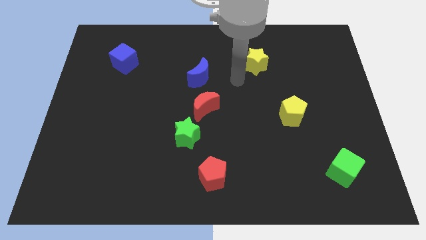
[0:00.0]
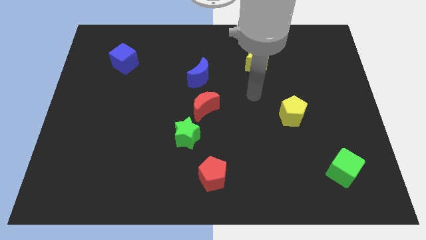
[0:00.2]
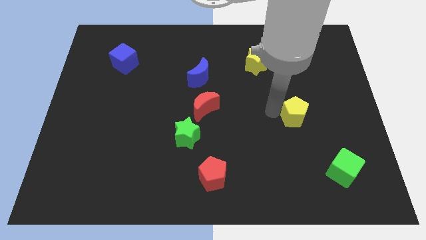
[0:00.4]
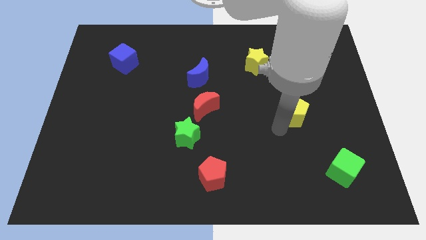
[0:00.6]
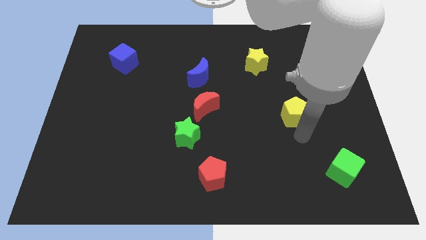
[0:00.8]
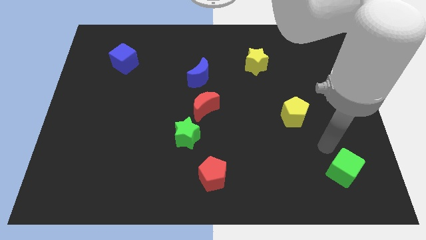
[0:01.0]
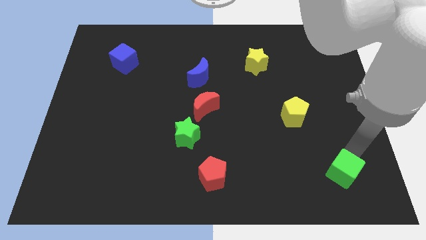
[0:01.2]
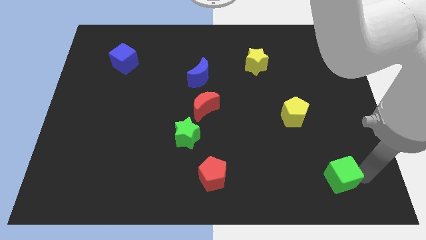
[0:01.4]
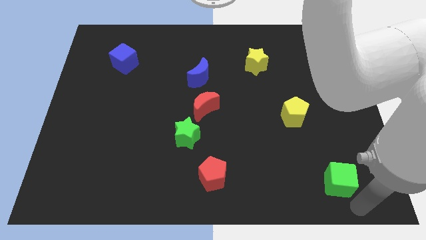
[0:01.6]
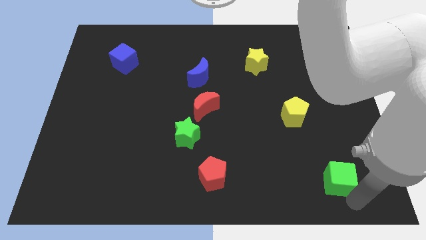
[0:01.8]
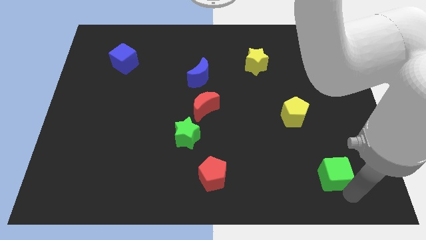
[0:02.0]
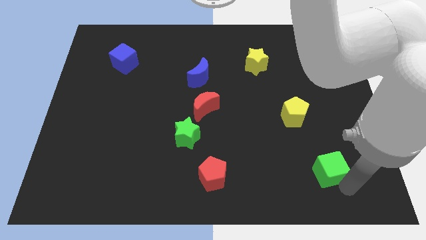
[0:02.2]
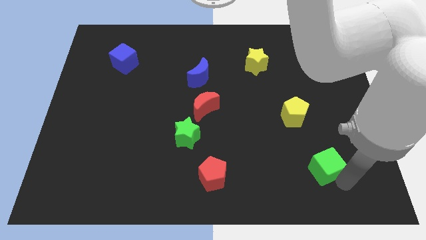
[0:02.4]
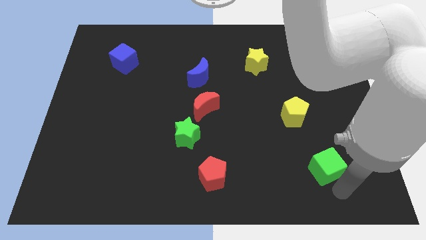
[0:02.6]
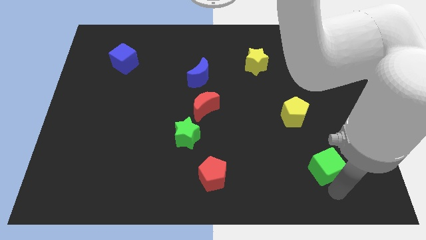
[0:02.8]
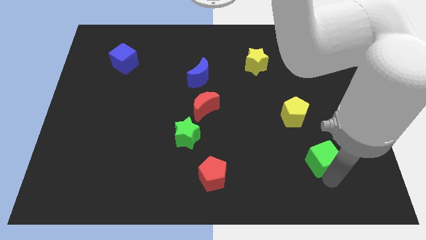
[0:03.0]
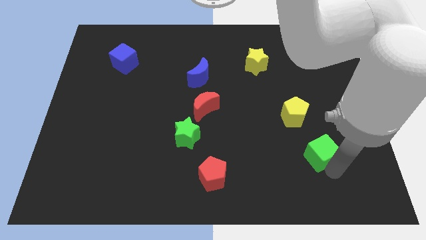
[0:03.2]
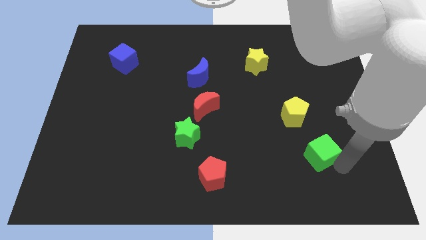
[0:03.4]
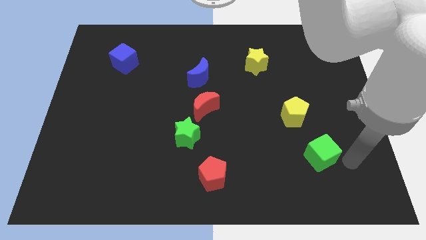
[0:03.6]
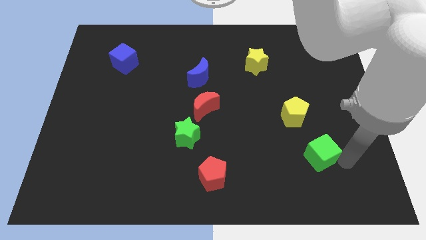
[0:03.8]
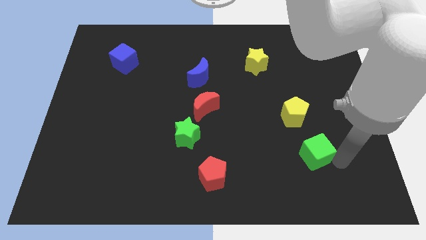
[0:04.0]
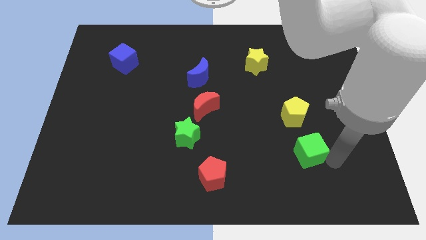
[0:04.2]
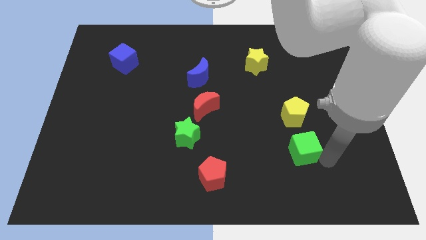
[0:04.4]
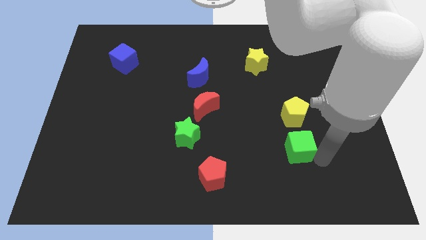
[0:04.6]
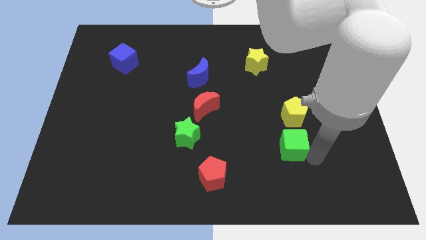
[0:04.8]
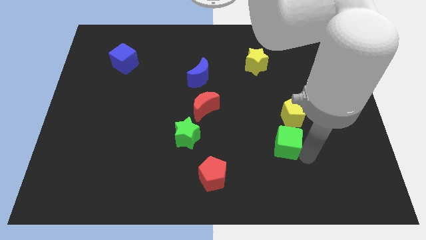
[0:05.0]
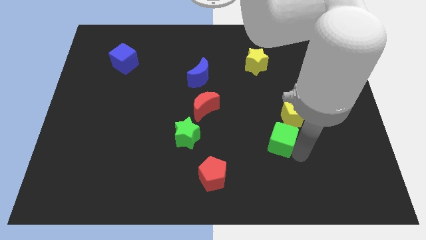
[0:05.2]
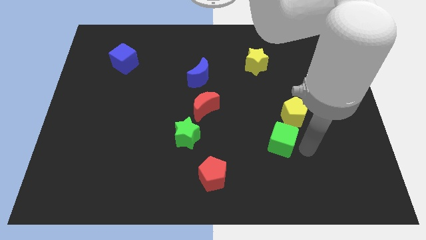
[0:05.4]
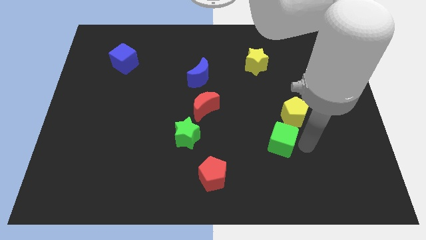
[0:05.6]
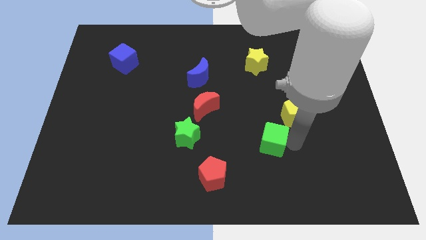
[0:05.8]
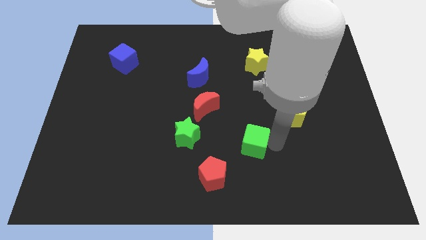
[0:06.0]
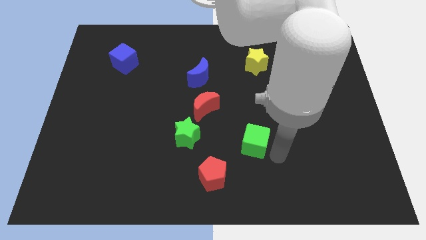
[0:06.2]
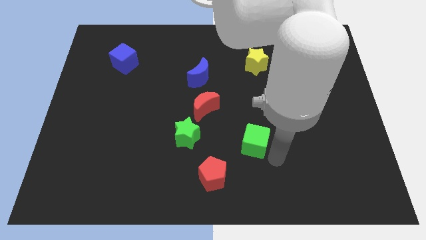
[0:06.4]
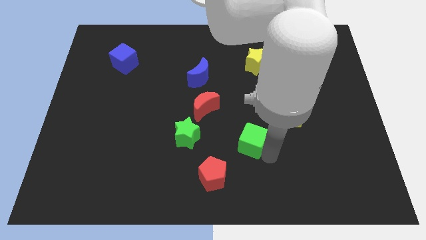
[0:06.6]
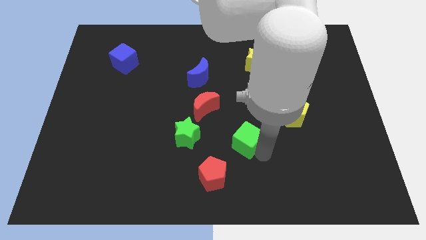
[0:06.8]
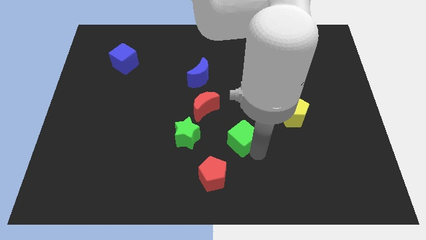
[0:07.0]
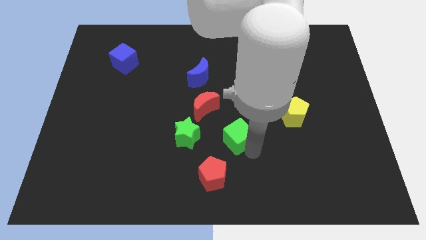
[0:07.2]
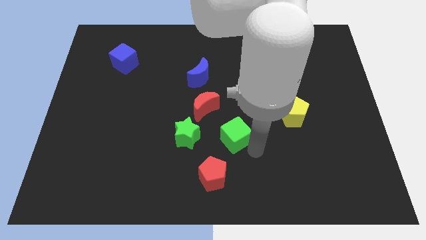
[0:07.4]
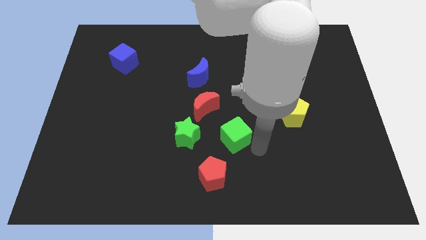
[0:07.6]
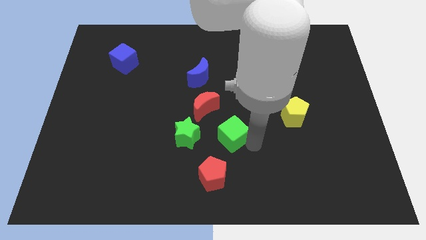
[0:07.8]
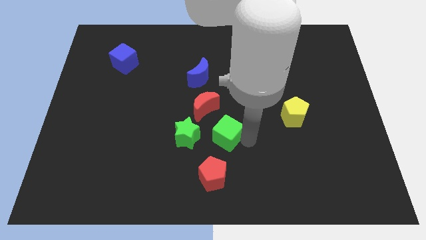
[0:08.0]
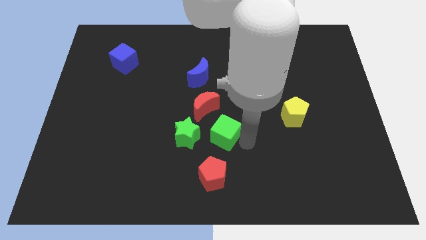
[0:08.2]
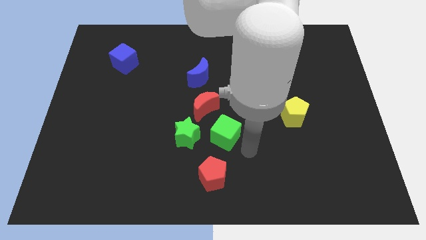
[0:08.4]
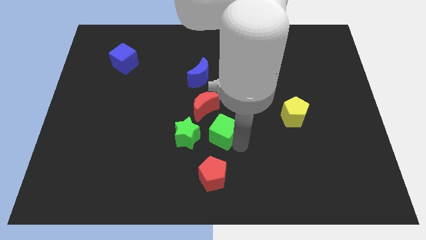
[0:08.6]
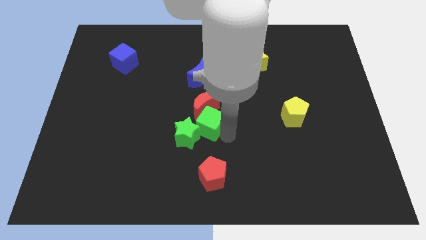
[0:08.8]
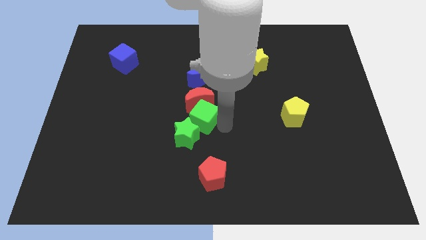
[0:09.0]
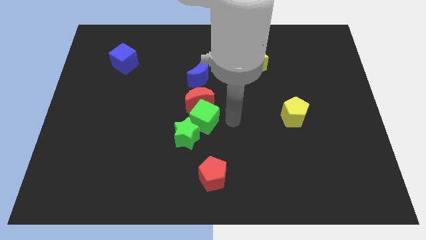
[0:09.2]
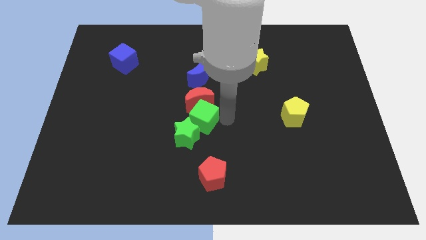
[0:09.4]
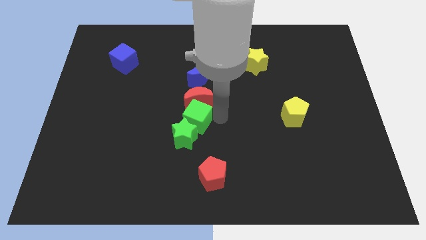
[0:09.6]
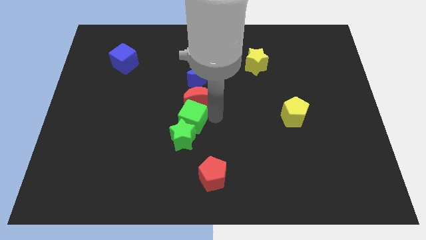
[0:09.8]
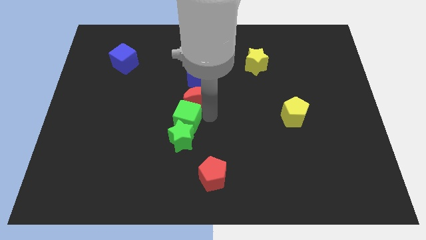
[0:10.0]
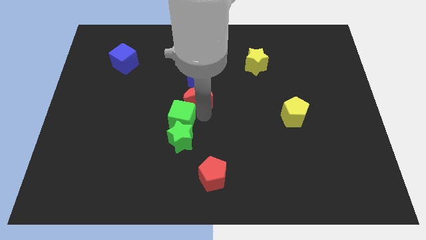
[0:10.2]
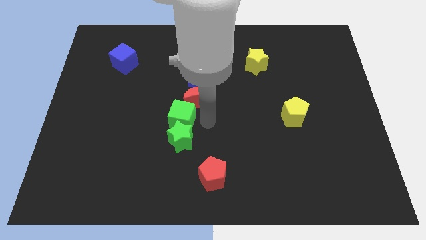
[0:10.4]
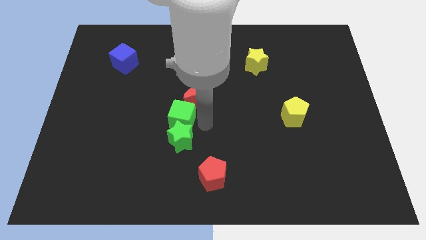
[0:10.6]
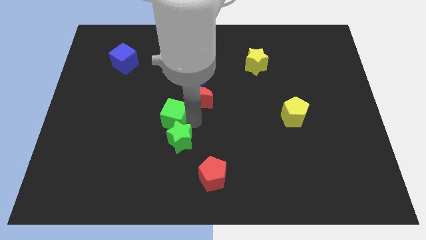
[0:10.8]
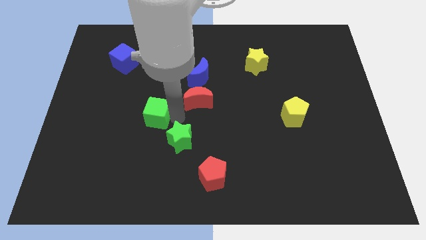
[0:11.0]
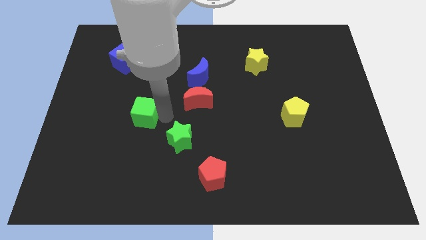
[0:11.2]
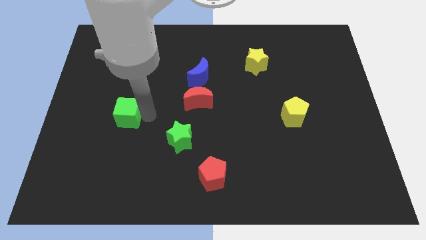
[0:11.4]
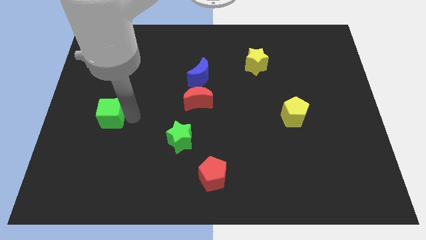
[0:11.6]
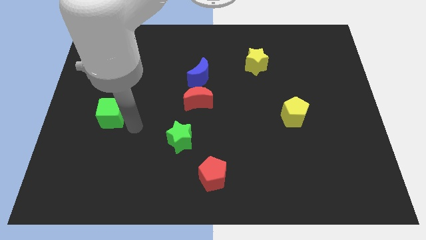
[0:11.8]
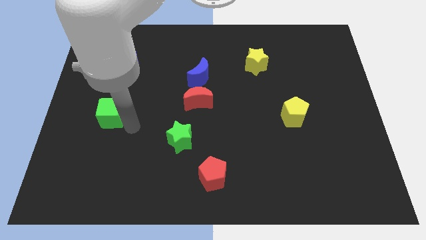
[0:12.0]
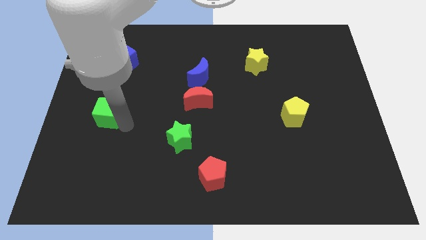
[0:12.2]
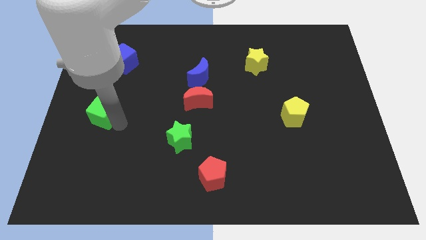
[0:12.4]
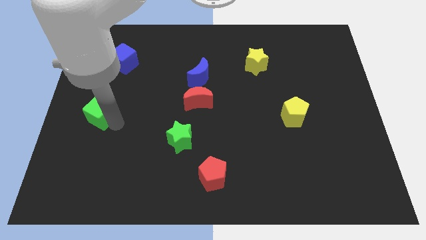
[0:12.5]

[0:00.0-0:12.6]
slide the green cube to the left side
